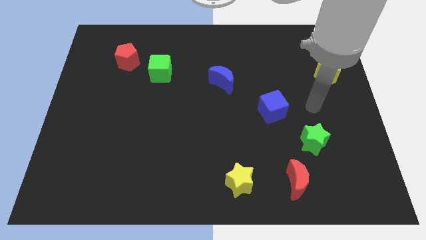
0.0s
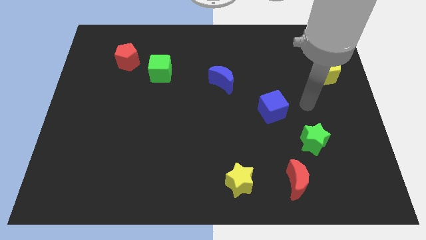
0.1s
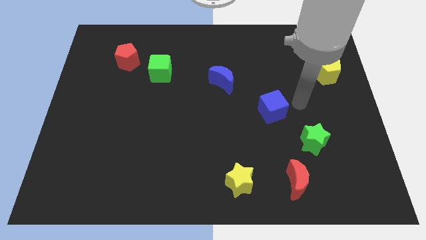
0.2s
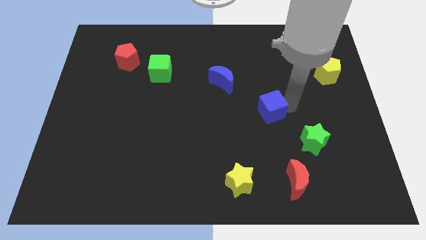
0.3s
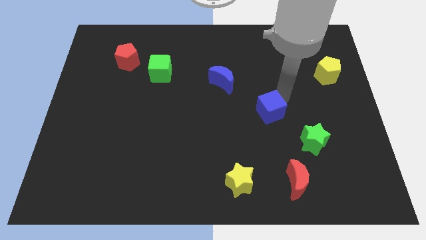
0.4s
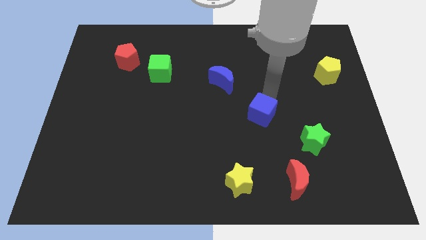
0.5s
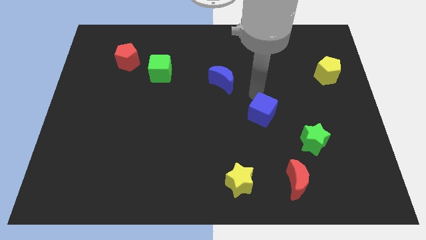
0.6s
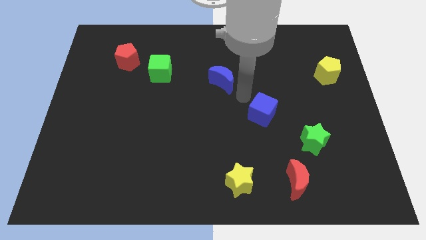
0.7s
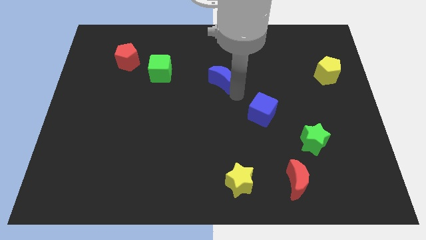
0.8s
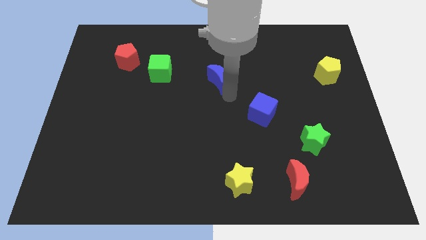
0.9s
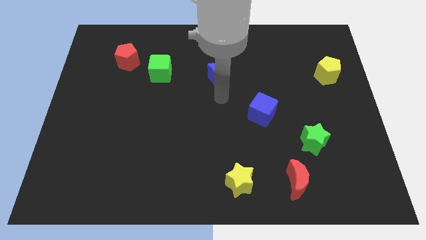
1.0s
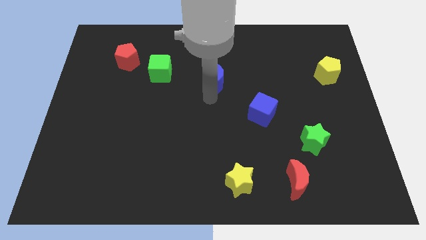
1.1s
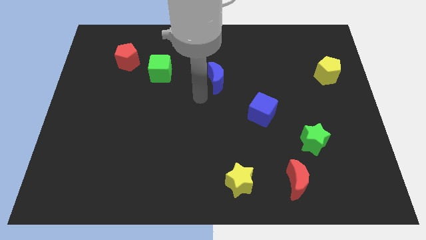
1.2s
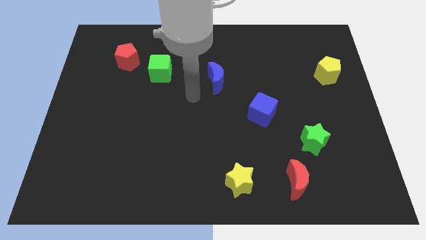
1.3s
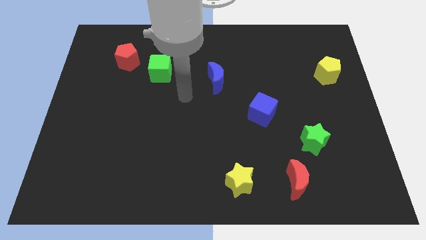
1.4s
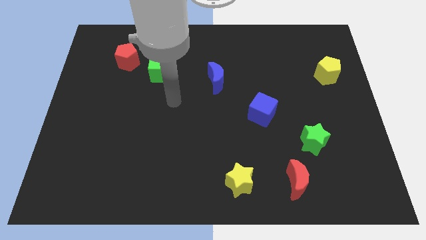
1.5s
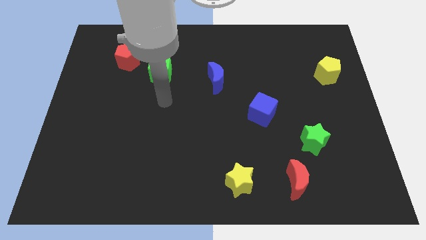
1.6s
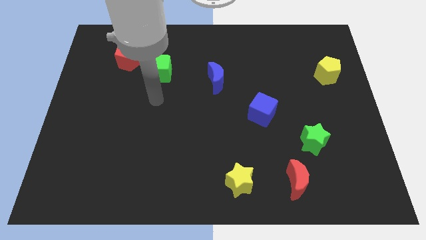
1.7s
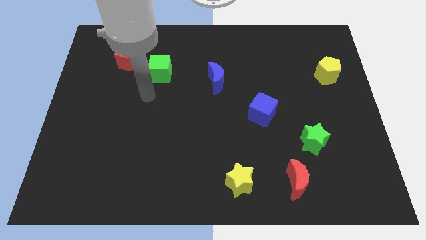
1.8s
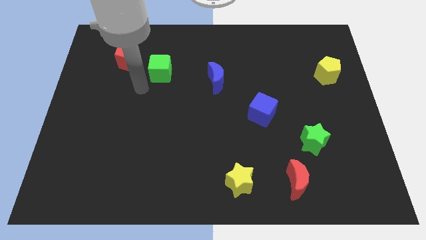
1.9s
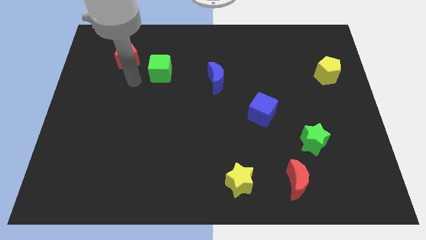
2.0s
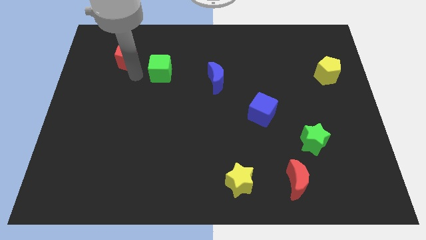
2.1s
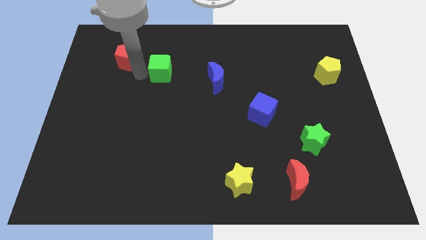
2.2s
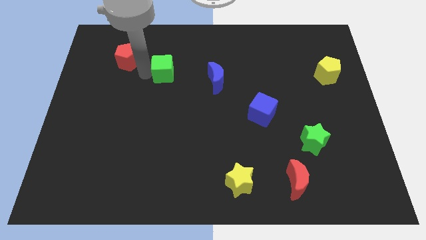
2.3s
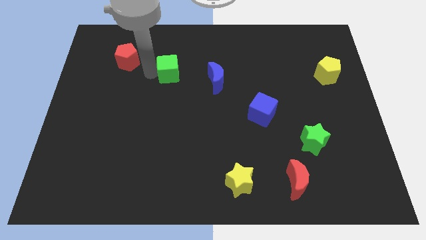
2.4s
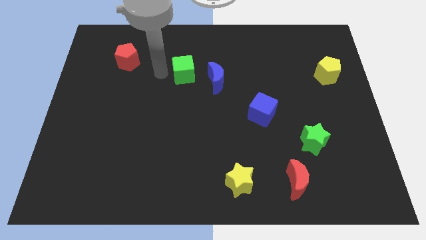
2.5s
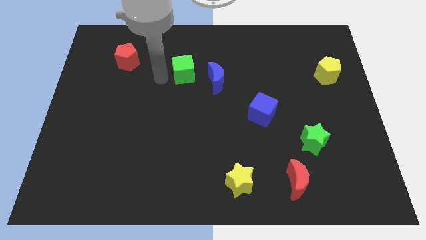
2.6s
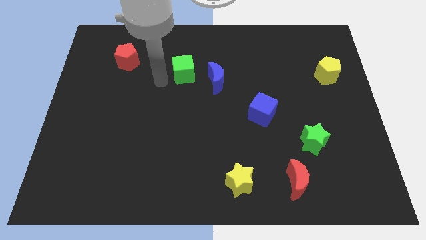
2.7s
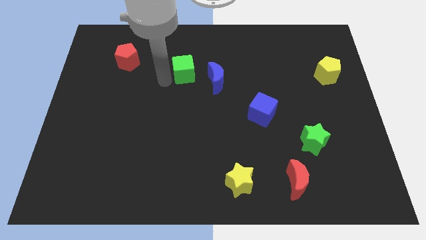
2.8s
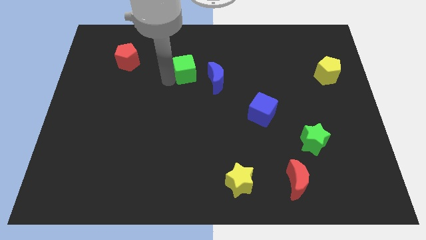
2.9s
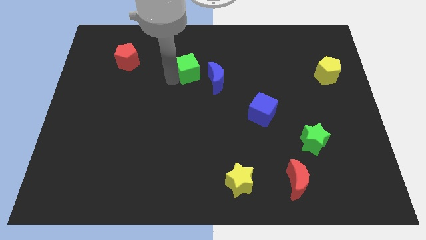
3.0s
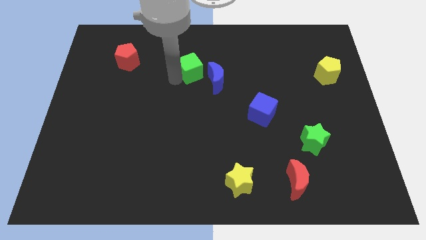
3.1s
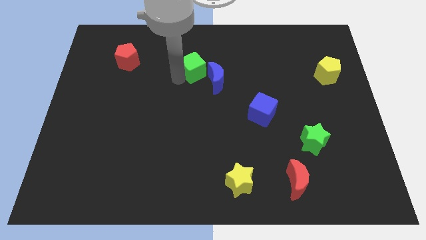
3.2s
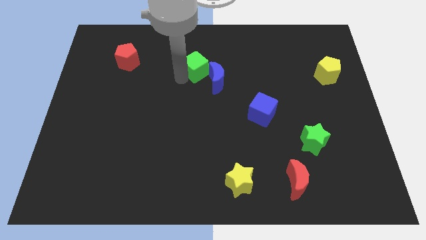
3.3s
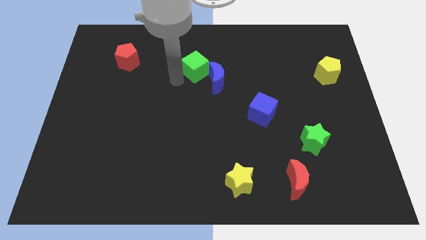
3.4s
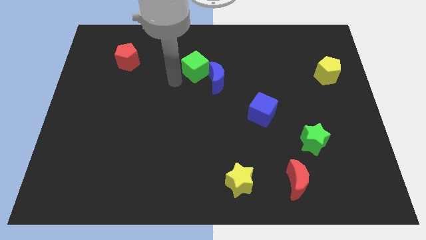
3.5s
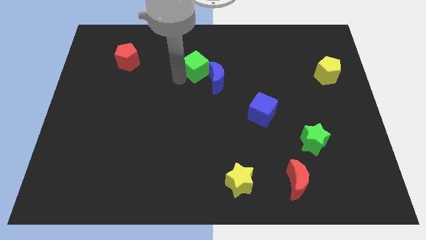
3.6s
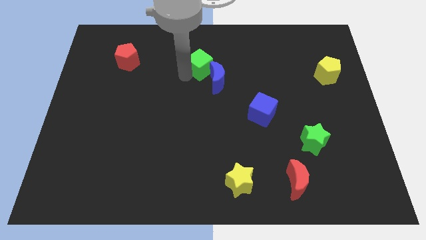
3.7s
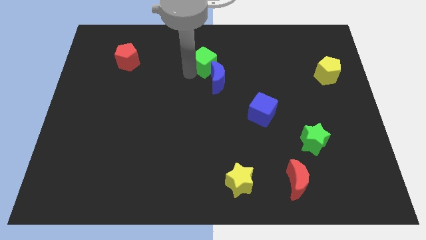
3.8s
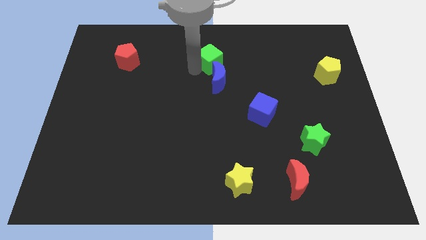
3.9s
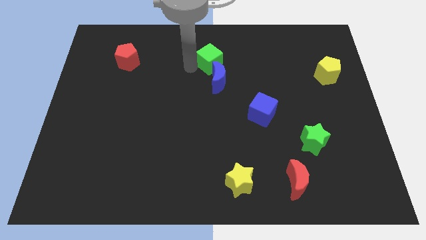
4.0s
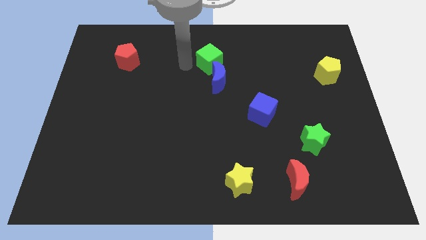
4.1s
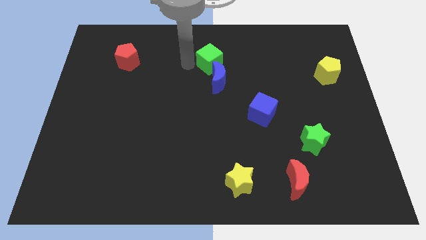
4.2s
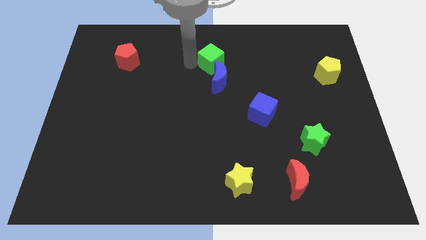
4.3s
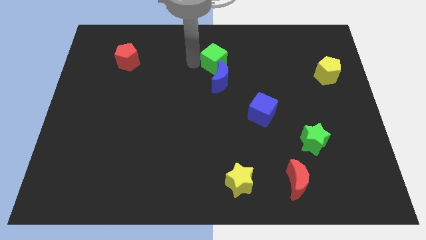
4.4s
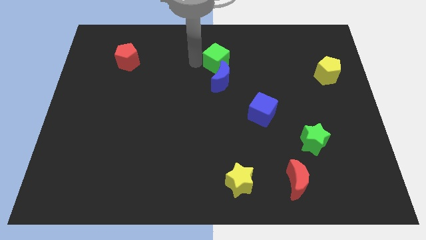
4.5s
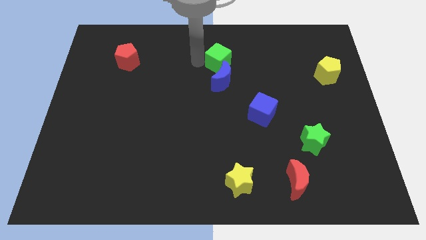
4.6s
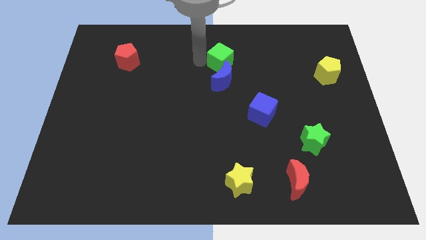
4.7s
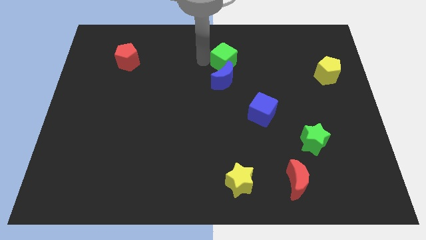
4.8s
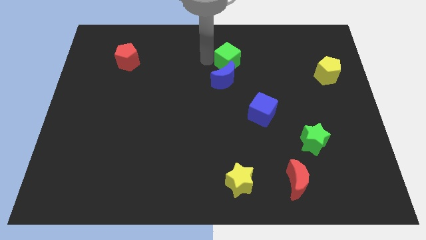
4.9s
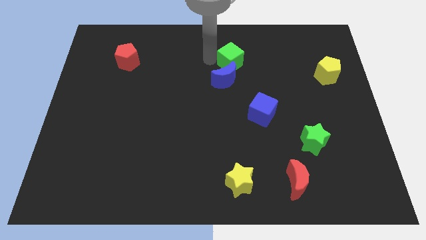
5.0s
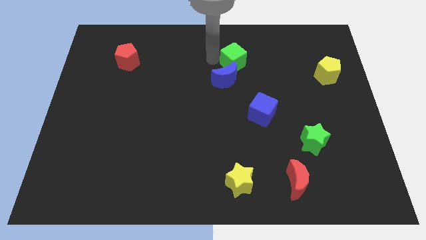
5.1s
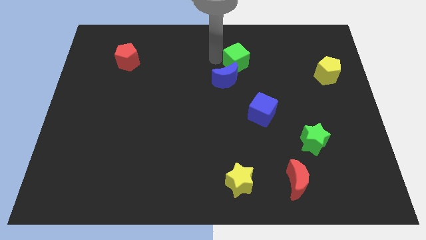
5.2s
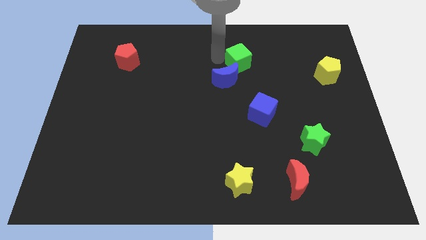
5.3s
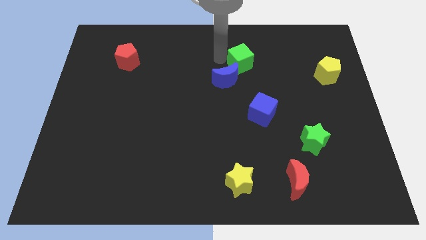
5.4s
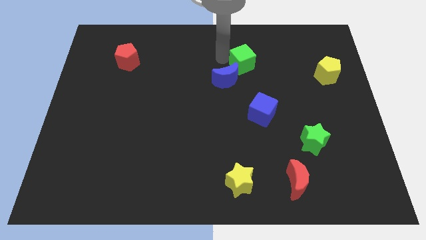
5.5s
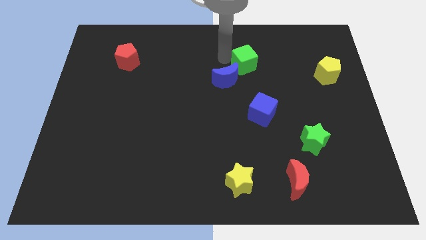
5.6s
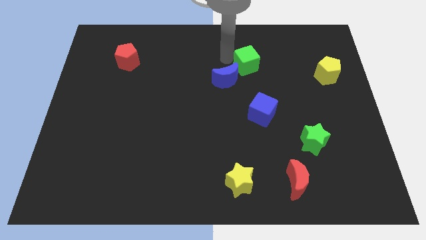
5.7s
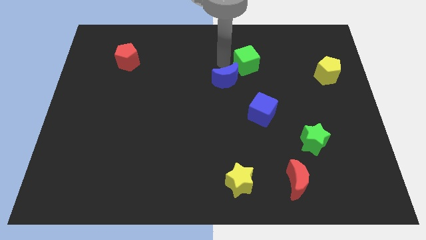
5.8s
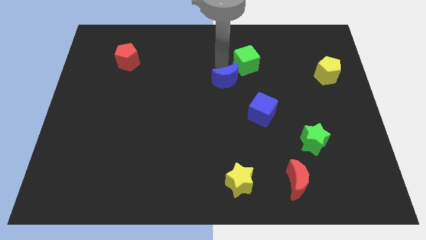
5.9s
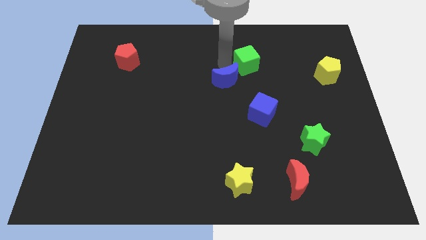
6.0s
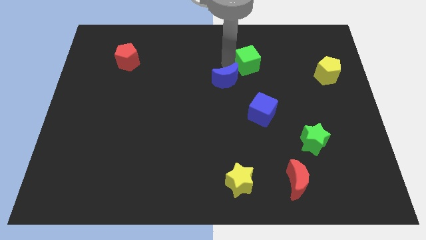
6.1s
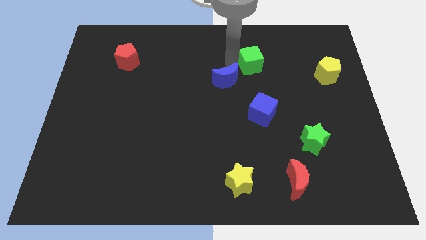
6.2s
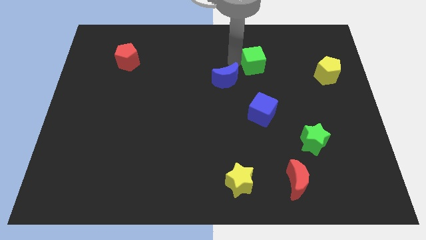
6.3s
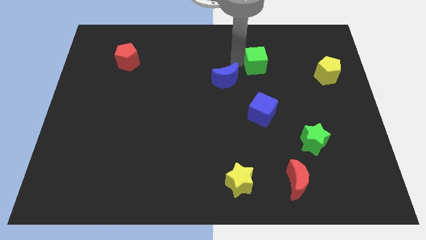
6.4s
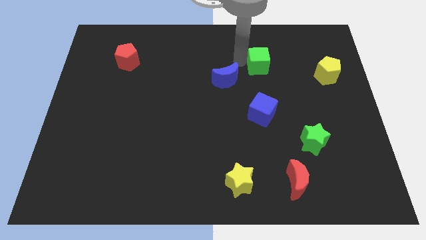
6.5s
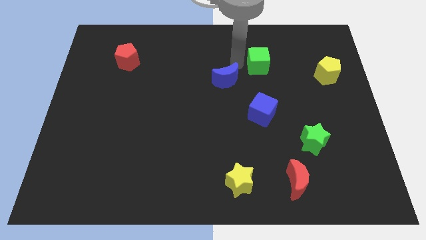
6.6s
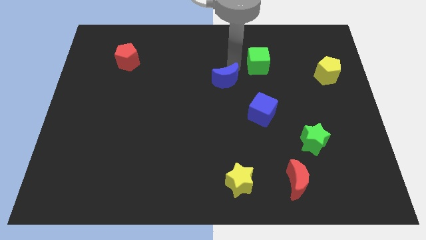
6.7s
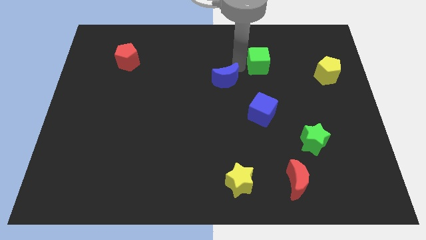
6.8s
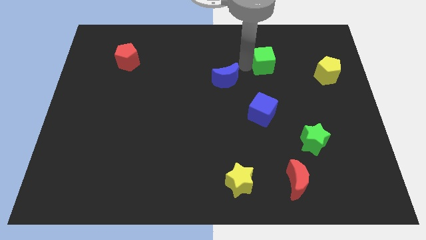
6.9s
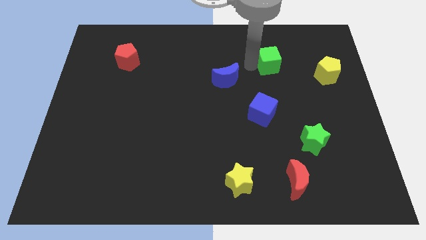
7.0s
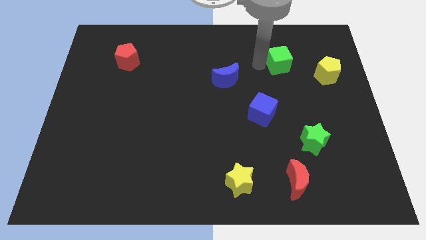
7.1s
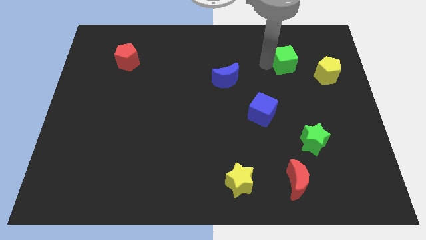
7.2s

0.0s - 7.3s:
move the green cube to the top left side of the yellow pentagon

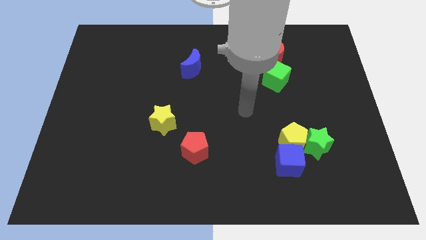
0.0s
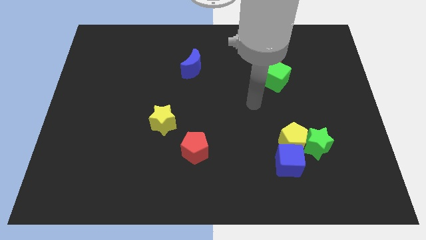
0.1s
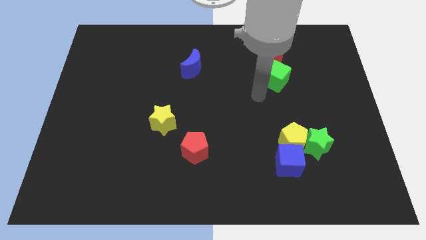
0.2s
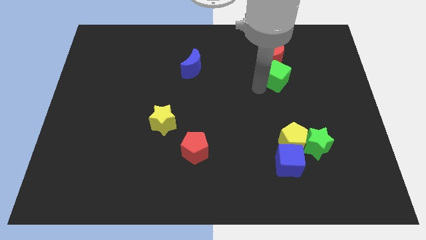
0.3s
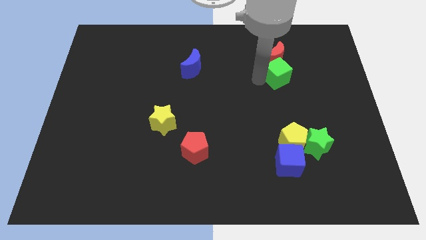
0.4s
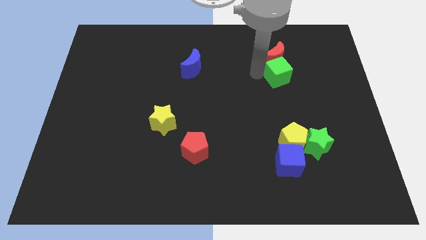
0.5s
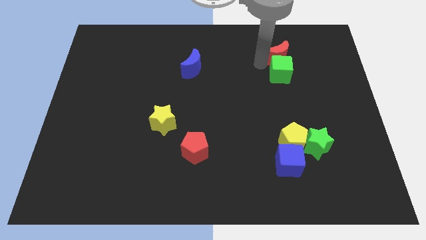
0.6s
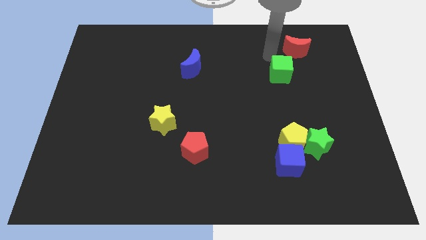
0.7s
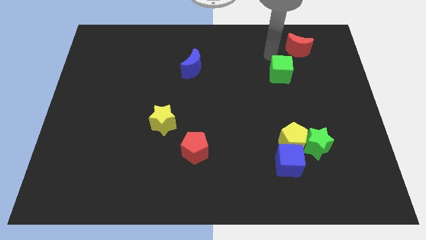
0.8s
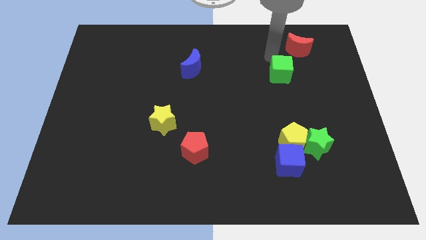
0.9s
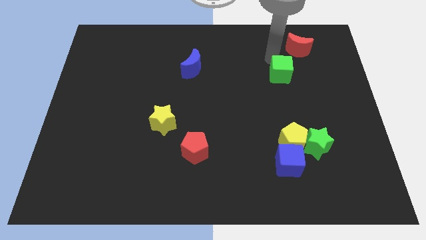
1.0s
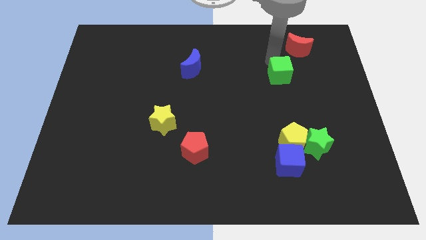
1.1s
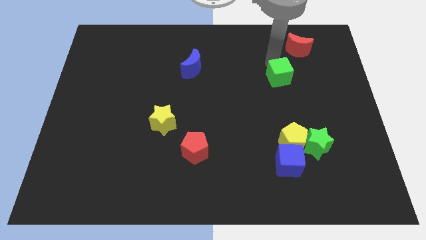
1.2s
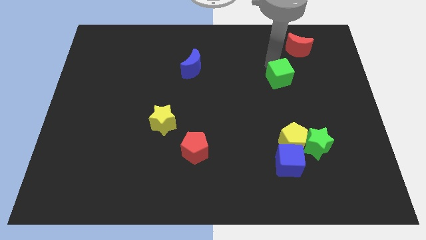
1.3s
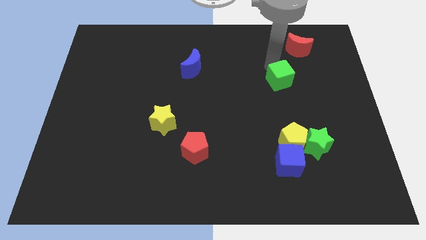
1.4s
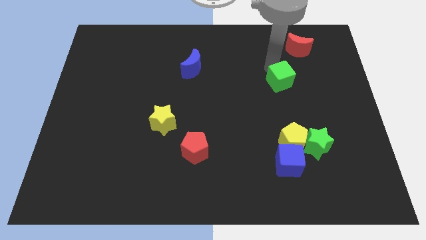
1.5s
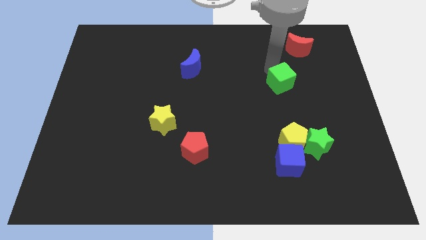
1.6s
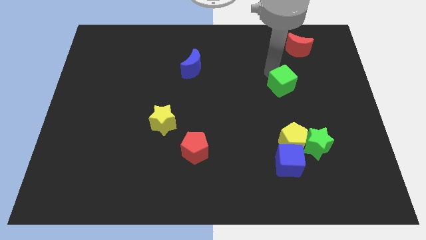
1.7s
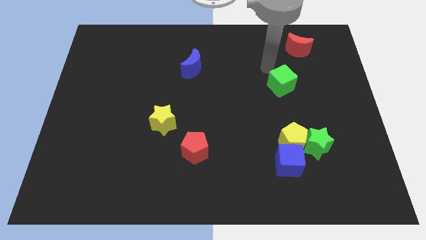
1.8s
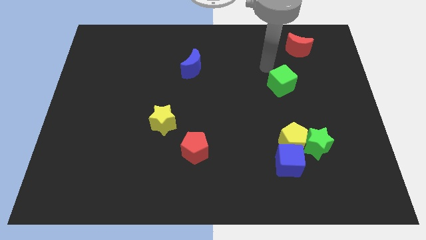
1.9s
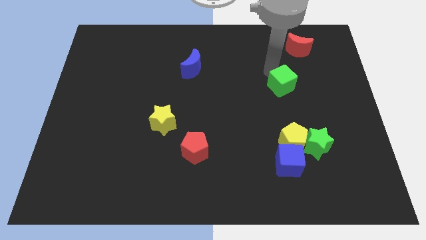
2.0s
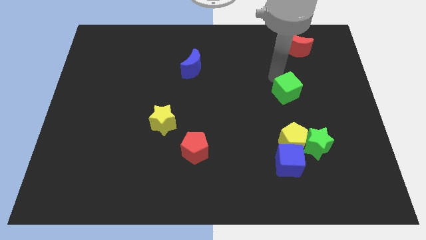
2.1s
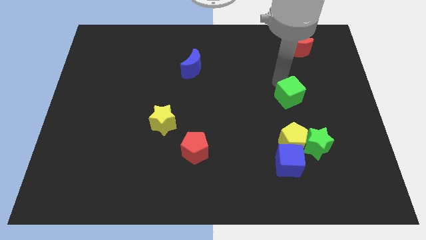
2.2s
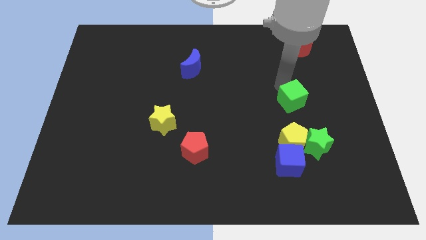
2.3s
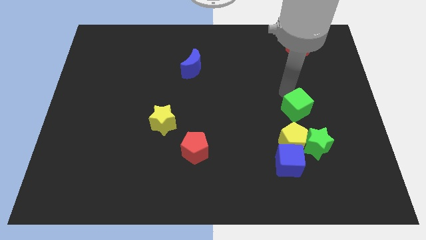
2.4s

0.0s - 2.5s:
push the green cube diagonally up and to the right of the yellow pentagon
